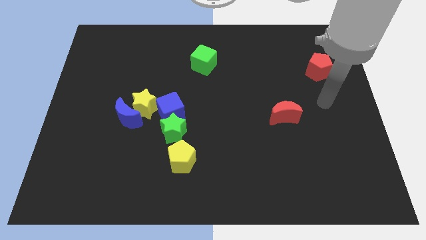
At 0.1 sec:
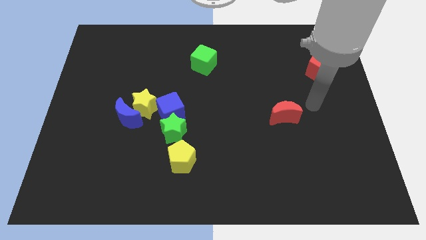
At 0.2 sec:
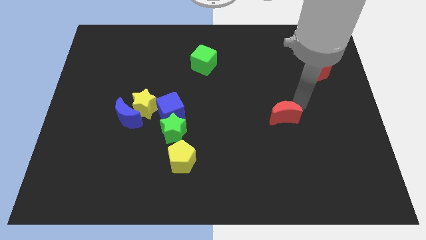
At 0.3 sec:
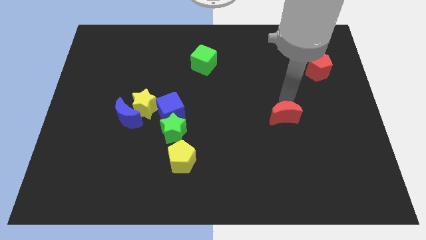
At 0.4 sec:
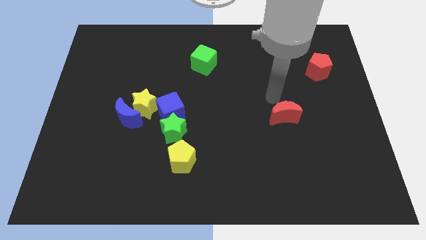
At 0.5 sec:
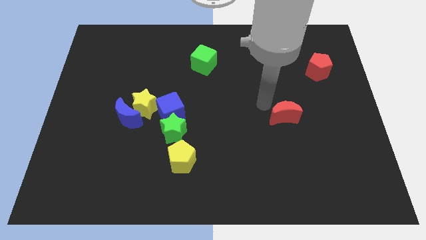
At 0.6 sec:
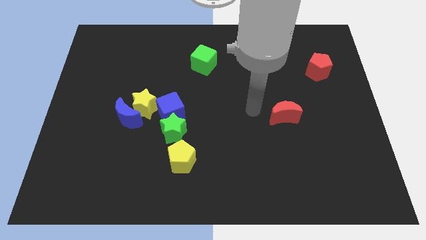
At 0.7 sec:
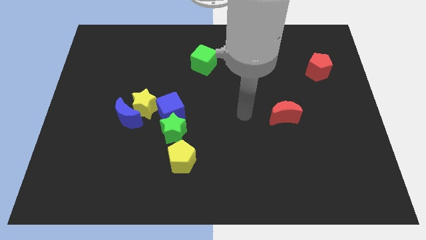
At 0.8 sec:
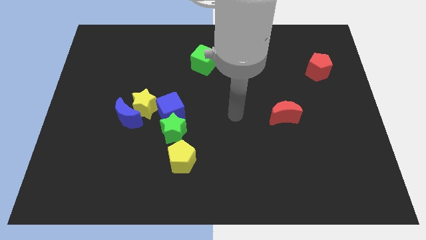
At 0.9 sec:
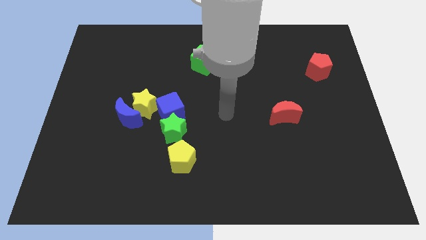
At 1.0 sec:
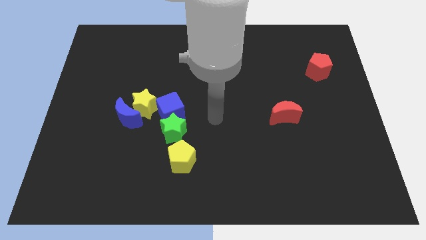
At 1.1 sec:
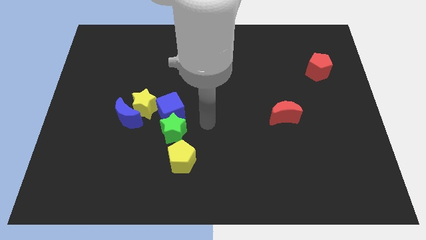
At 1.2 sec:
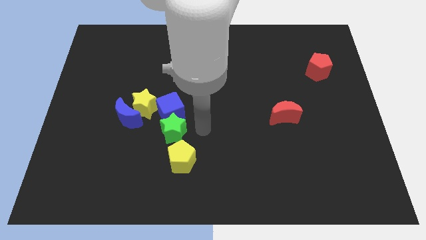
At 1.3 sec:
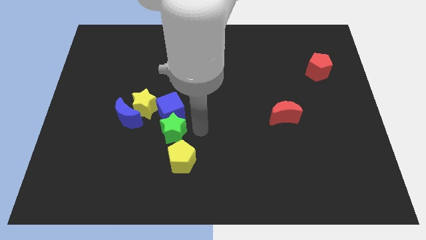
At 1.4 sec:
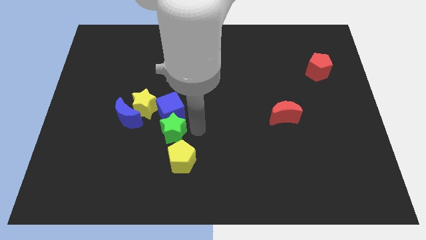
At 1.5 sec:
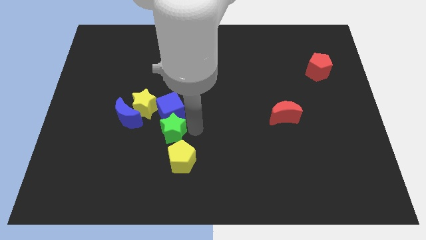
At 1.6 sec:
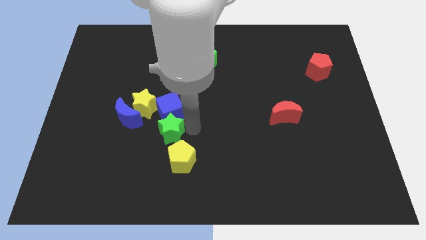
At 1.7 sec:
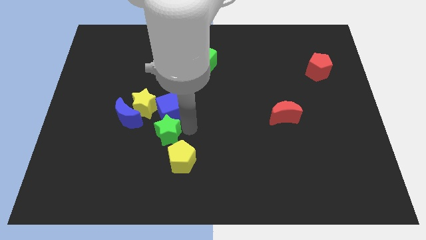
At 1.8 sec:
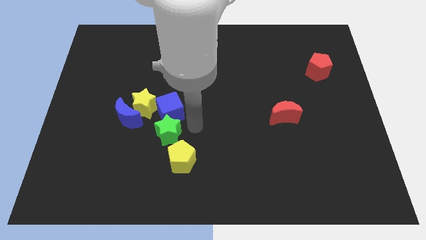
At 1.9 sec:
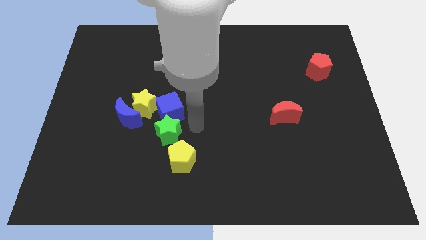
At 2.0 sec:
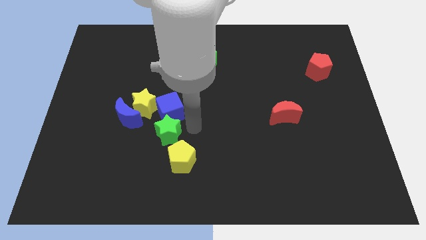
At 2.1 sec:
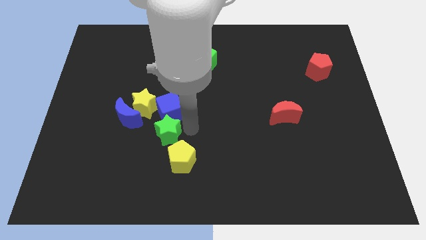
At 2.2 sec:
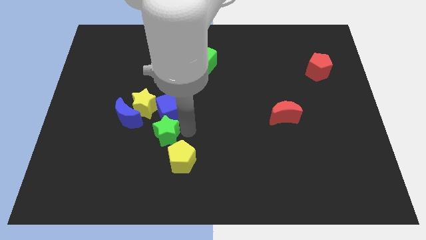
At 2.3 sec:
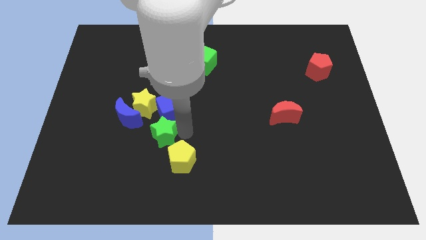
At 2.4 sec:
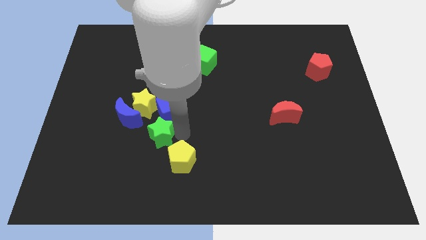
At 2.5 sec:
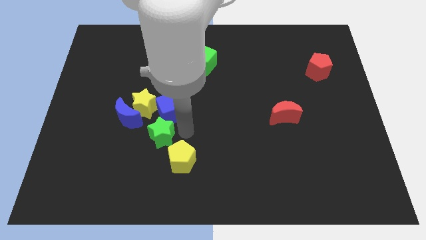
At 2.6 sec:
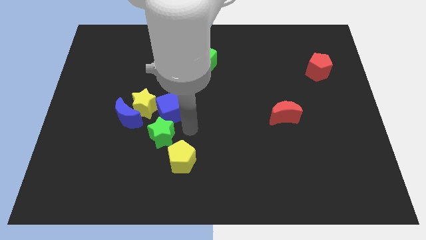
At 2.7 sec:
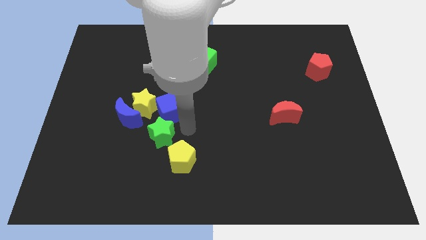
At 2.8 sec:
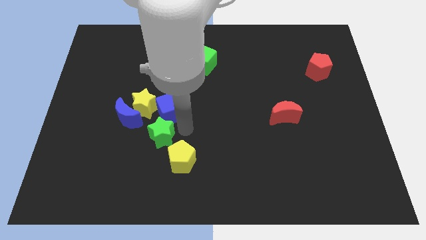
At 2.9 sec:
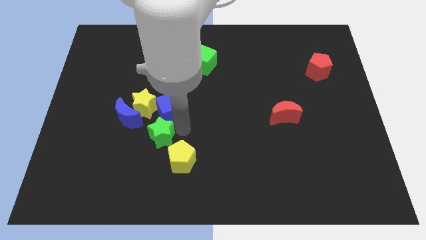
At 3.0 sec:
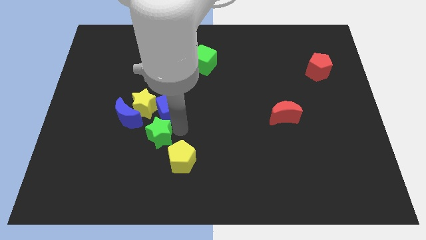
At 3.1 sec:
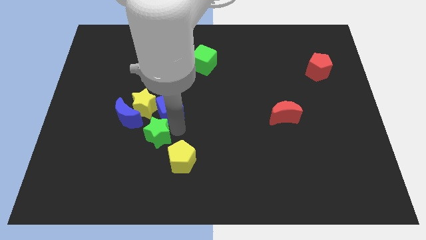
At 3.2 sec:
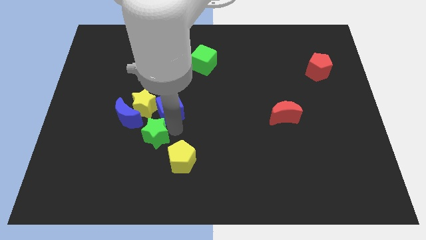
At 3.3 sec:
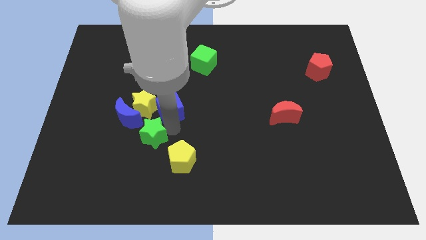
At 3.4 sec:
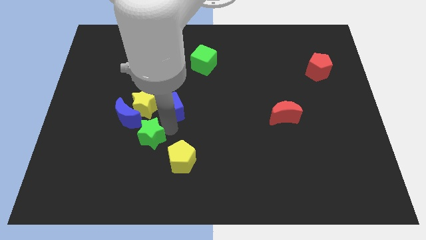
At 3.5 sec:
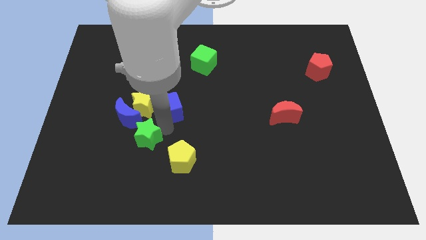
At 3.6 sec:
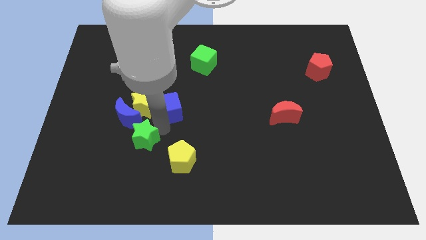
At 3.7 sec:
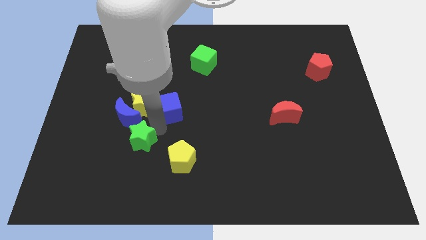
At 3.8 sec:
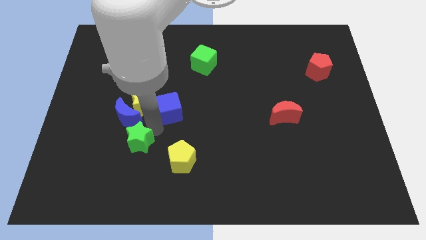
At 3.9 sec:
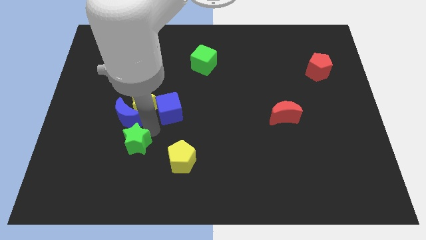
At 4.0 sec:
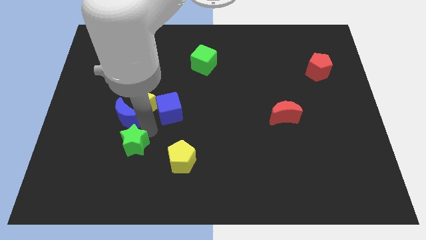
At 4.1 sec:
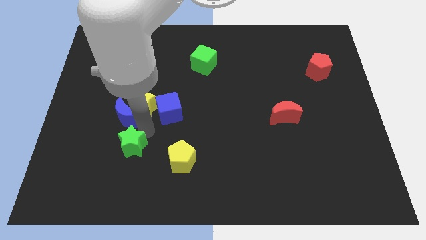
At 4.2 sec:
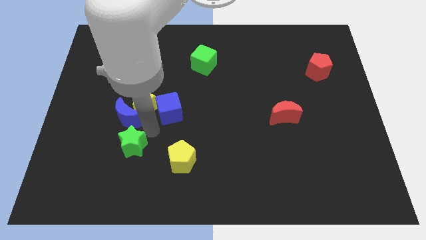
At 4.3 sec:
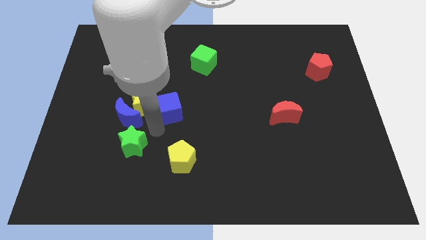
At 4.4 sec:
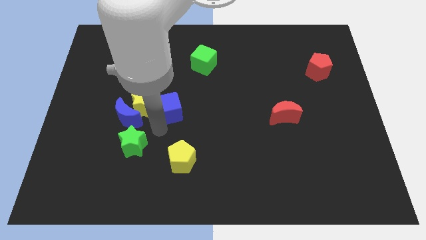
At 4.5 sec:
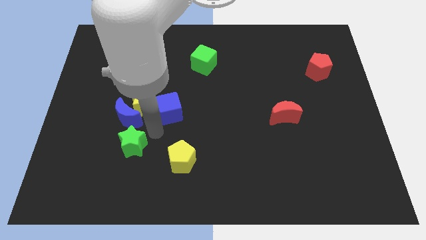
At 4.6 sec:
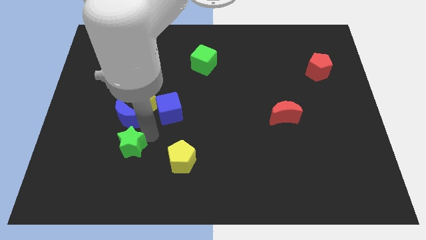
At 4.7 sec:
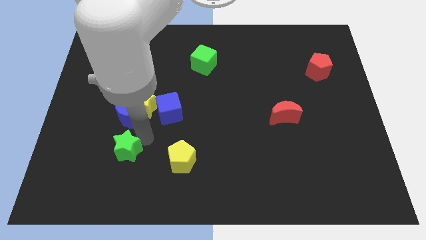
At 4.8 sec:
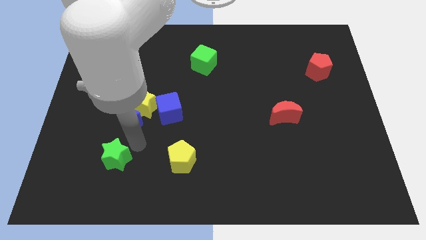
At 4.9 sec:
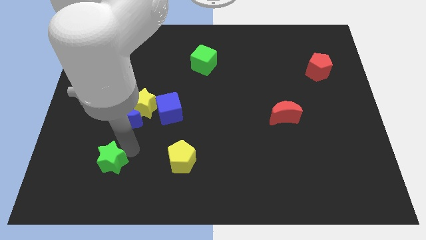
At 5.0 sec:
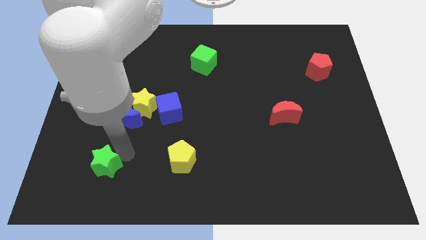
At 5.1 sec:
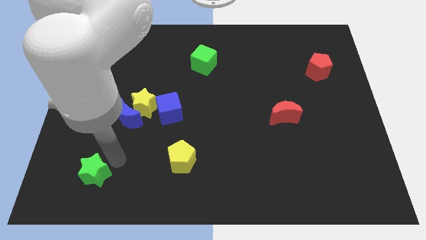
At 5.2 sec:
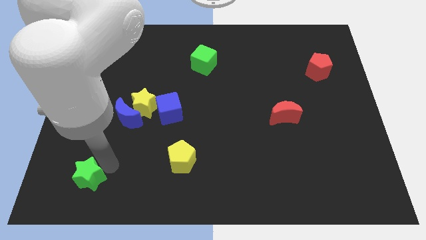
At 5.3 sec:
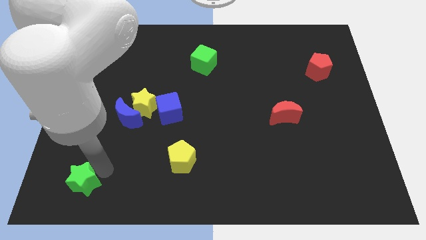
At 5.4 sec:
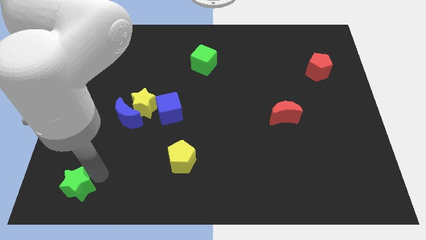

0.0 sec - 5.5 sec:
slide the green star to the lower left corner
